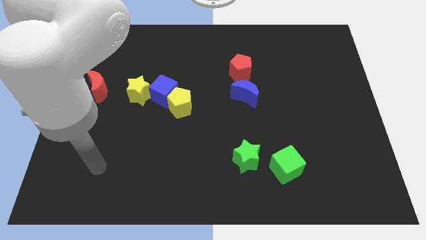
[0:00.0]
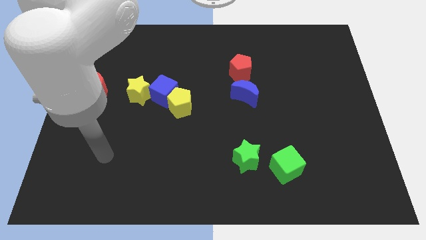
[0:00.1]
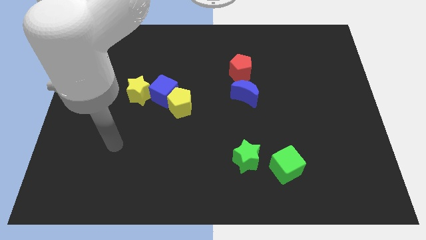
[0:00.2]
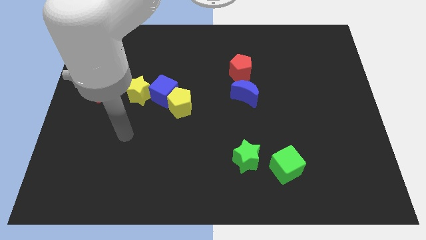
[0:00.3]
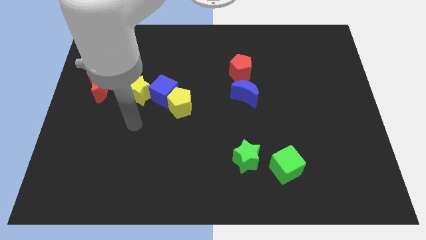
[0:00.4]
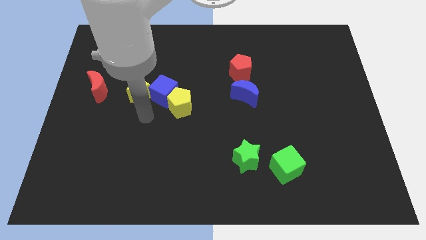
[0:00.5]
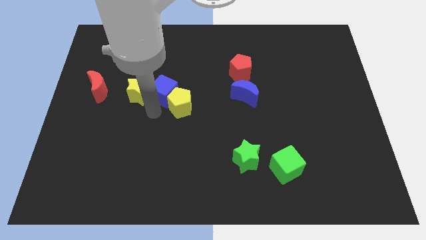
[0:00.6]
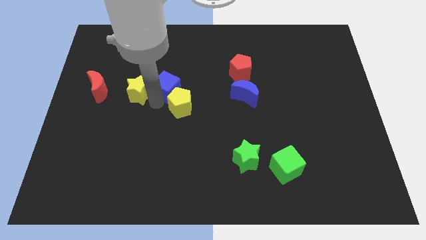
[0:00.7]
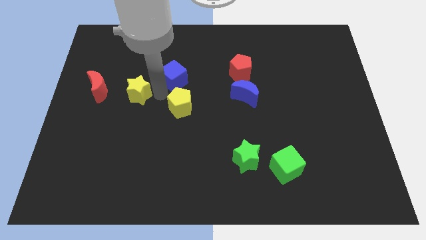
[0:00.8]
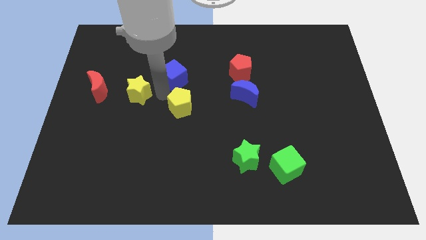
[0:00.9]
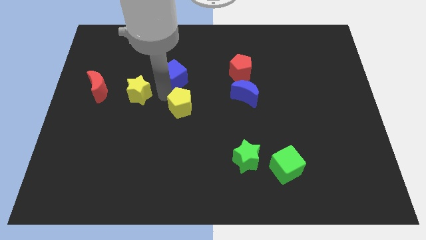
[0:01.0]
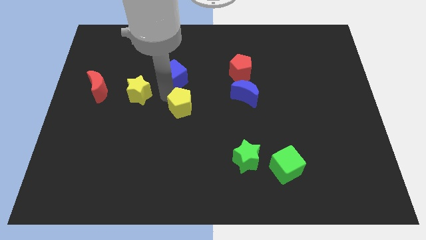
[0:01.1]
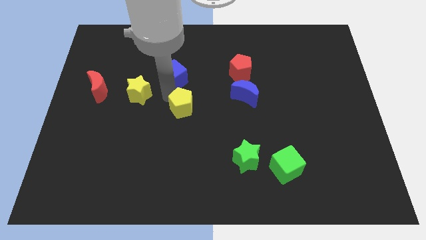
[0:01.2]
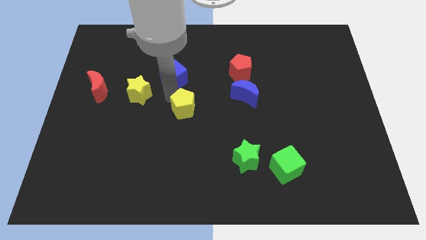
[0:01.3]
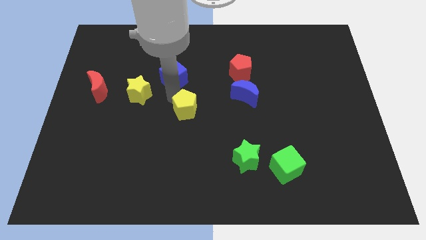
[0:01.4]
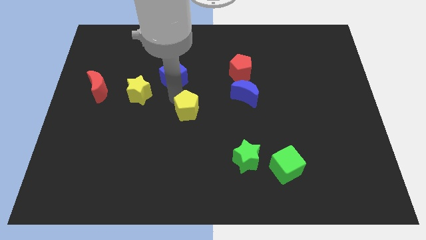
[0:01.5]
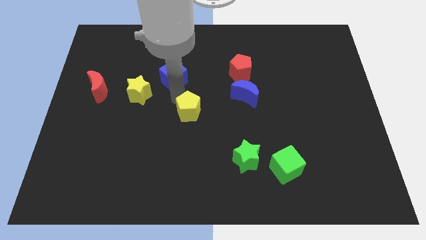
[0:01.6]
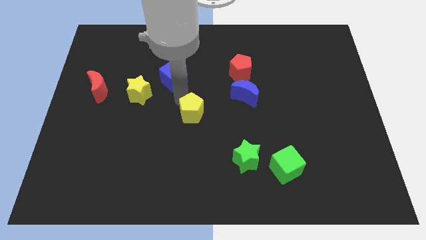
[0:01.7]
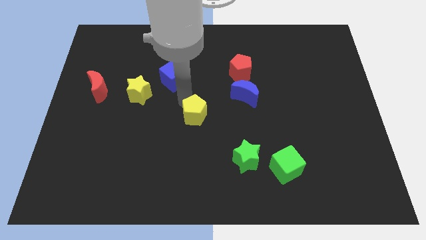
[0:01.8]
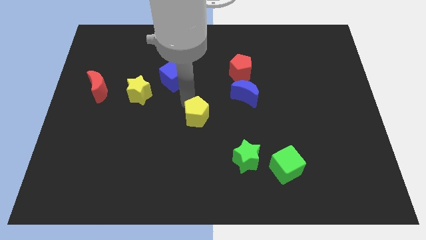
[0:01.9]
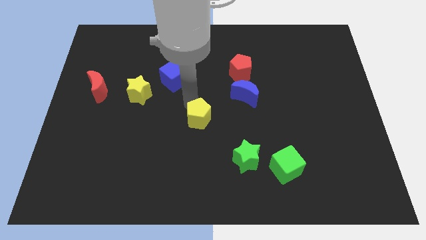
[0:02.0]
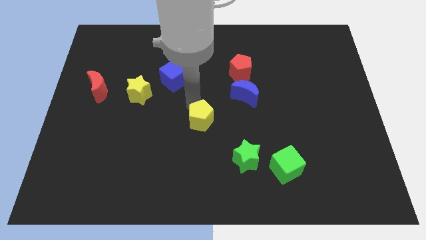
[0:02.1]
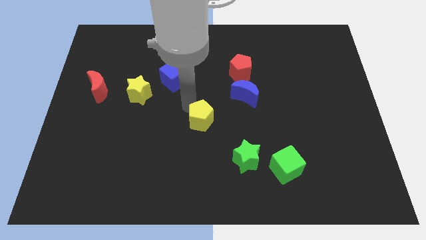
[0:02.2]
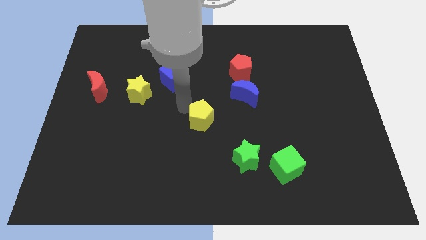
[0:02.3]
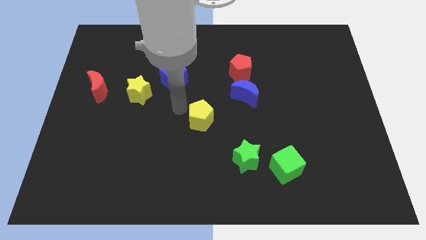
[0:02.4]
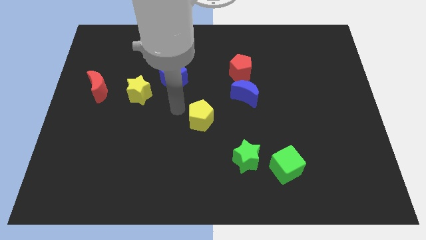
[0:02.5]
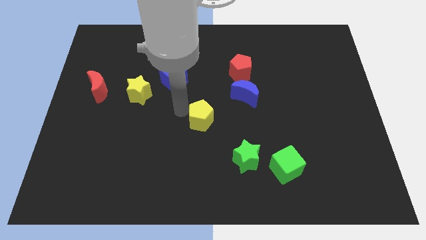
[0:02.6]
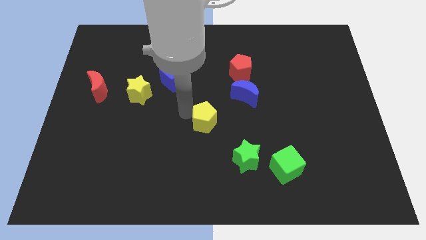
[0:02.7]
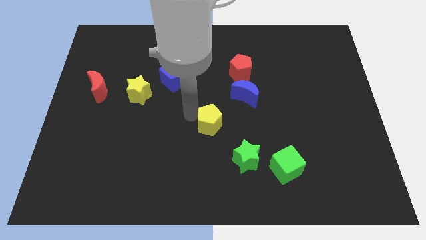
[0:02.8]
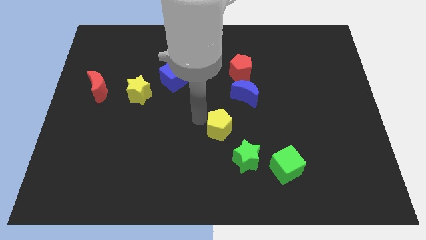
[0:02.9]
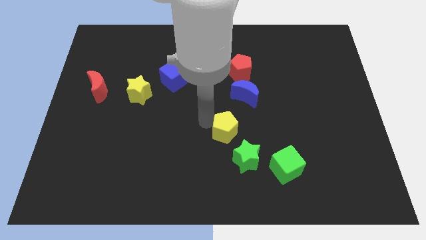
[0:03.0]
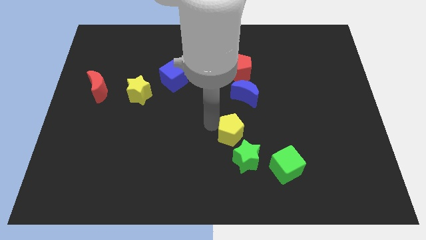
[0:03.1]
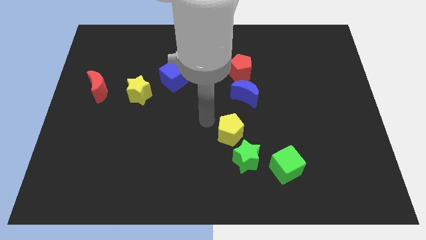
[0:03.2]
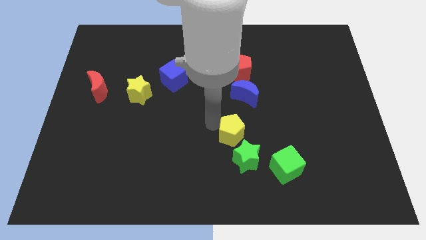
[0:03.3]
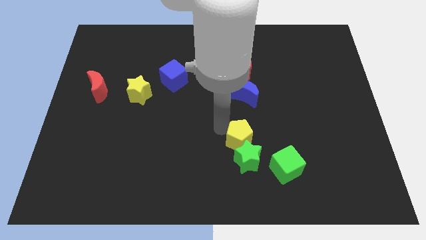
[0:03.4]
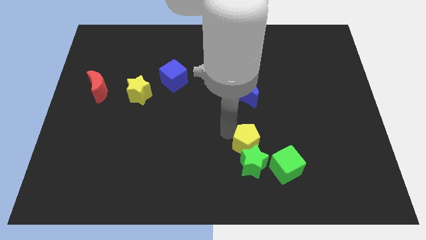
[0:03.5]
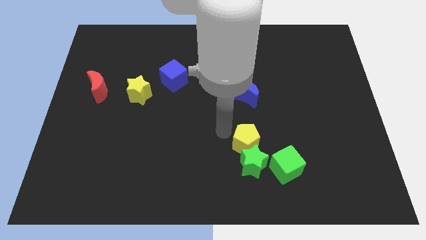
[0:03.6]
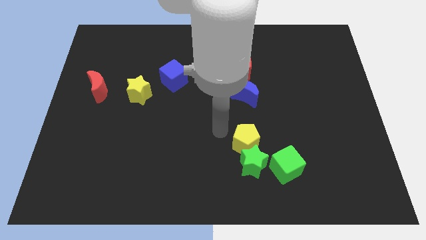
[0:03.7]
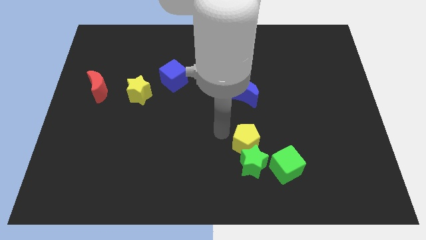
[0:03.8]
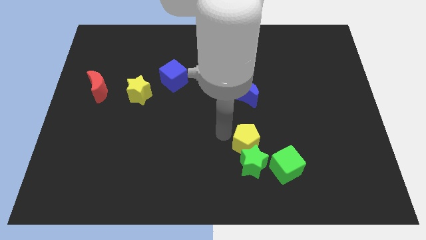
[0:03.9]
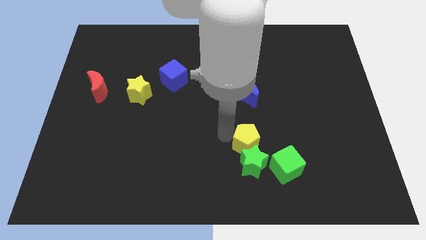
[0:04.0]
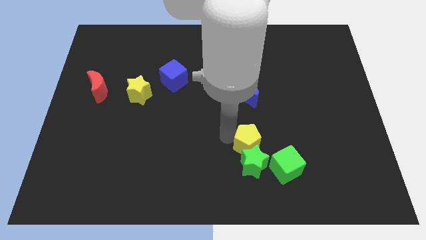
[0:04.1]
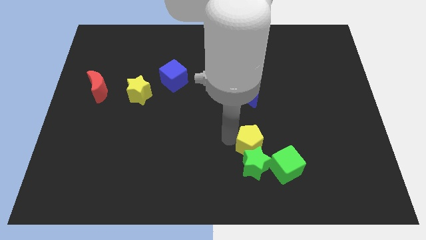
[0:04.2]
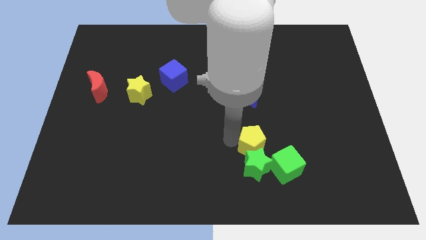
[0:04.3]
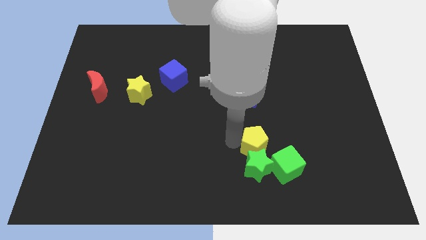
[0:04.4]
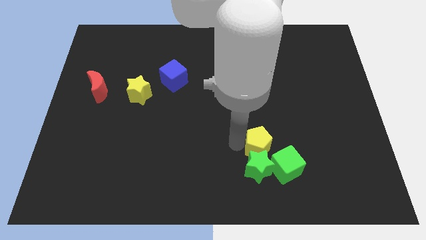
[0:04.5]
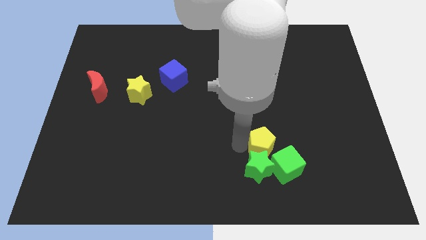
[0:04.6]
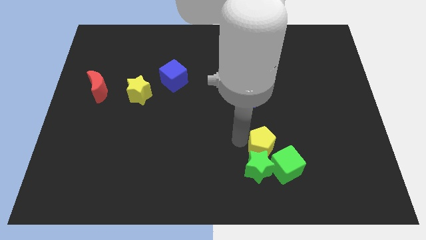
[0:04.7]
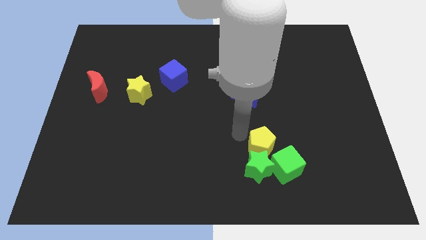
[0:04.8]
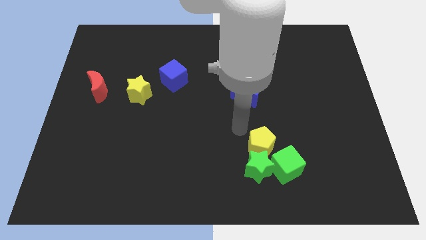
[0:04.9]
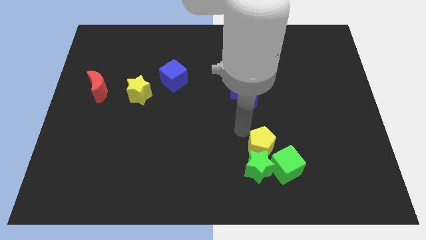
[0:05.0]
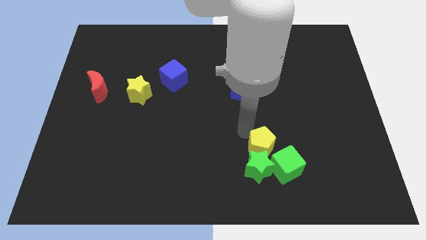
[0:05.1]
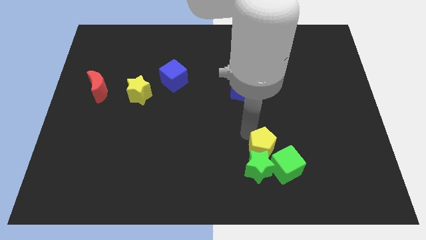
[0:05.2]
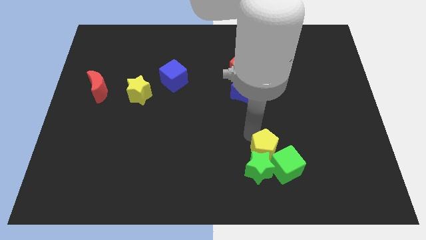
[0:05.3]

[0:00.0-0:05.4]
push the yellow pentagon towards the green cube

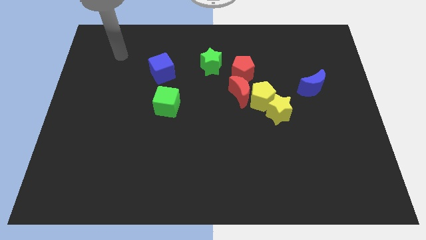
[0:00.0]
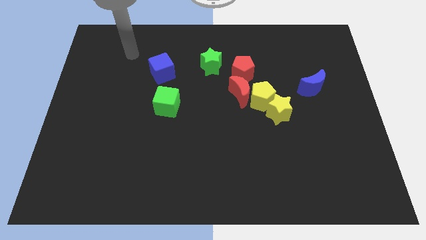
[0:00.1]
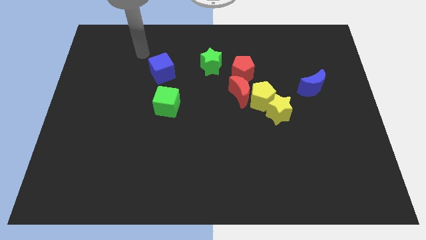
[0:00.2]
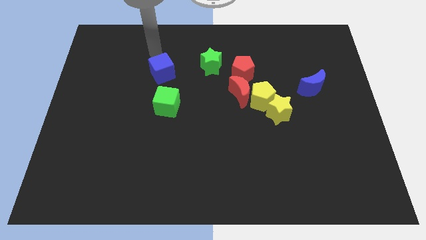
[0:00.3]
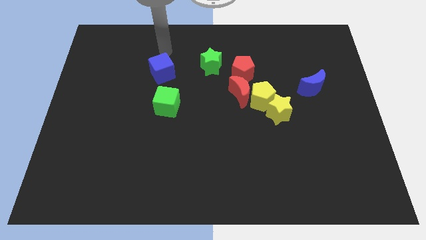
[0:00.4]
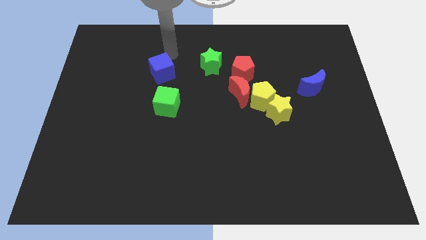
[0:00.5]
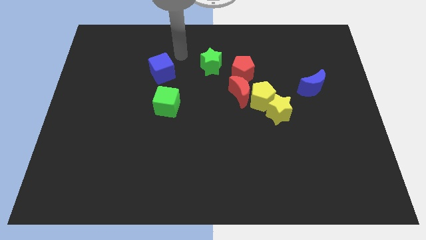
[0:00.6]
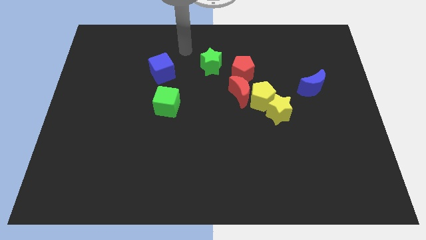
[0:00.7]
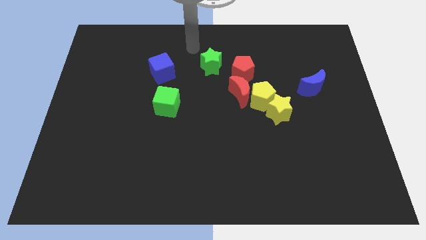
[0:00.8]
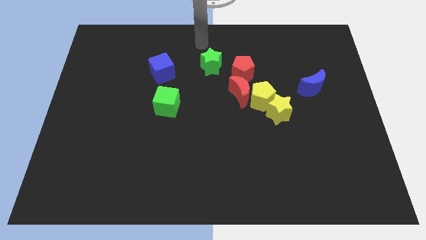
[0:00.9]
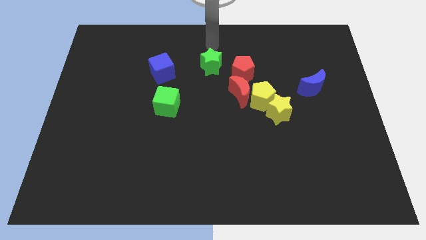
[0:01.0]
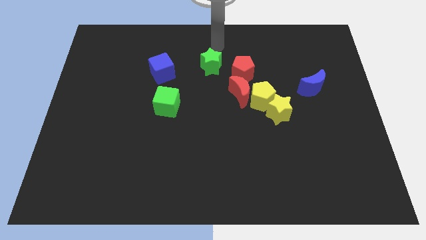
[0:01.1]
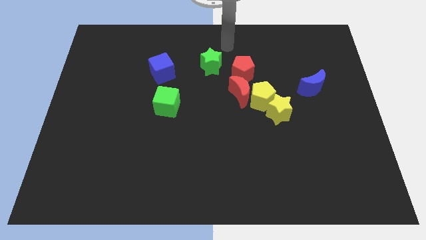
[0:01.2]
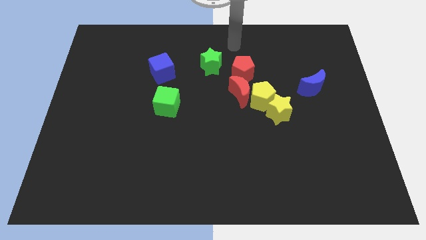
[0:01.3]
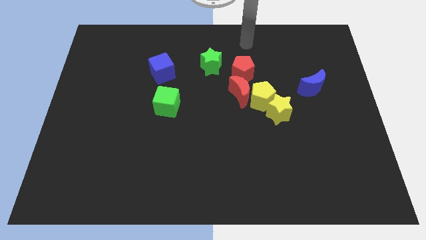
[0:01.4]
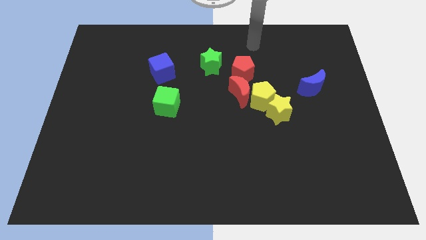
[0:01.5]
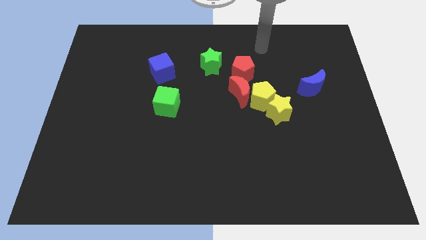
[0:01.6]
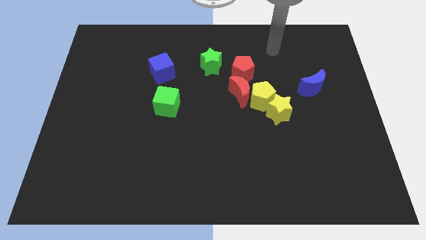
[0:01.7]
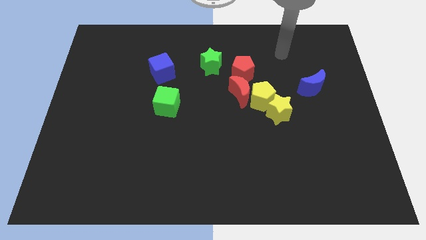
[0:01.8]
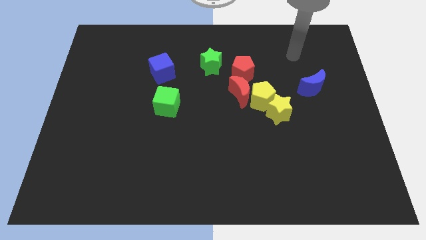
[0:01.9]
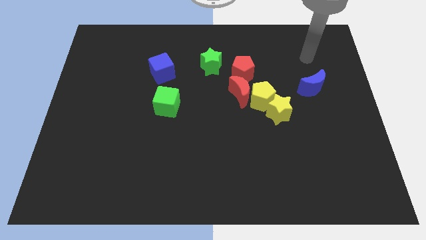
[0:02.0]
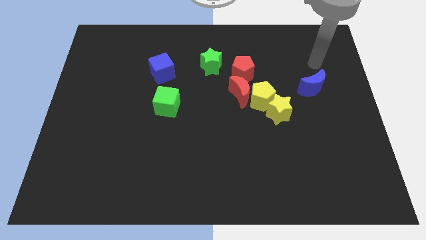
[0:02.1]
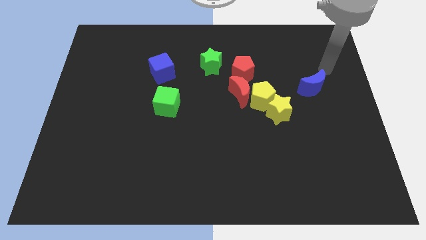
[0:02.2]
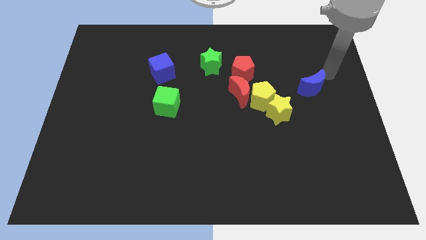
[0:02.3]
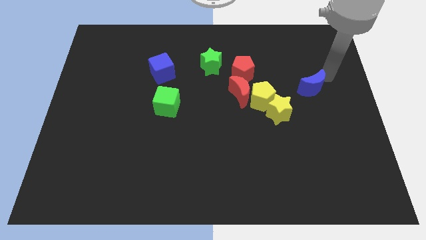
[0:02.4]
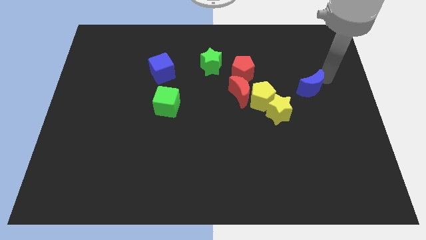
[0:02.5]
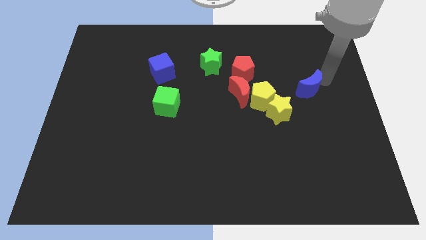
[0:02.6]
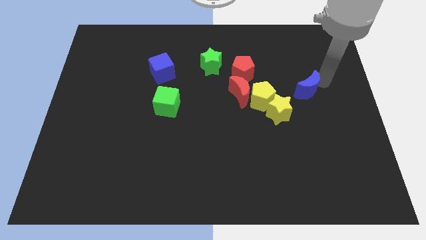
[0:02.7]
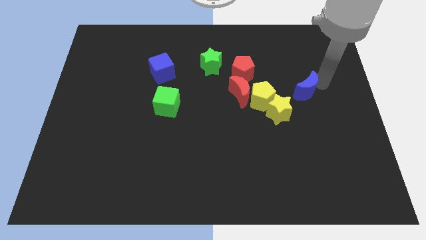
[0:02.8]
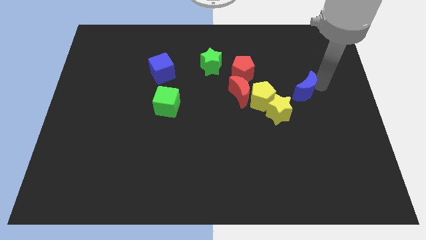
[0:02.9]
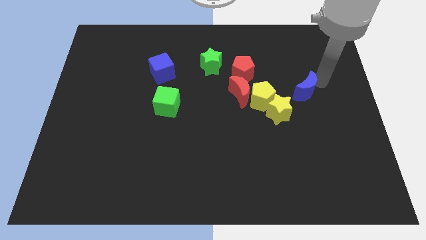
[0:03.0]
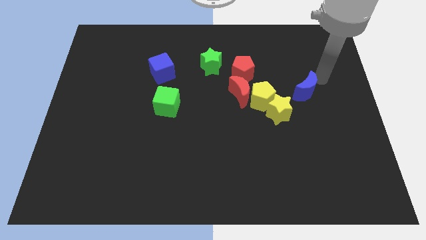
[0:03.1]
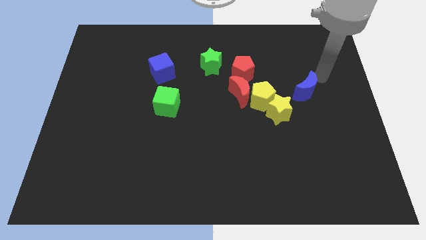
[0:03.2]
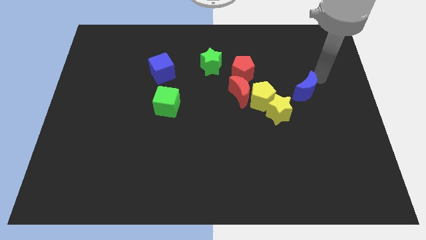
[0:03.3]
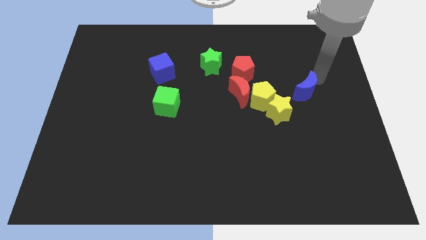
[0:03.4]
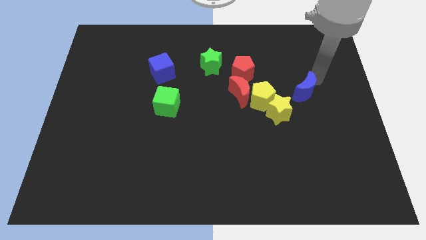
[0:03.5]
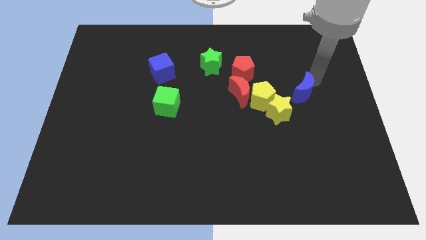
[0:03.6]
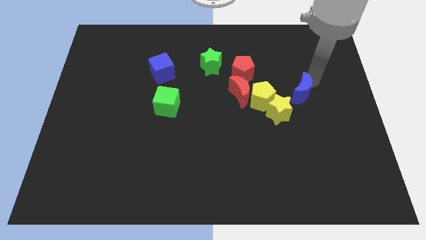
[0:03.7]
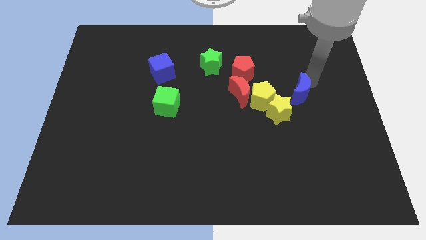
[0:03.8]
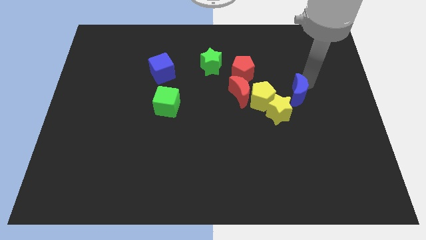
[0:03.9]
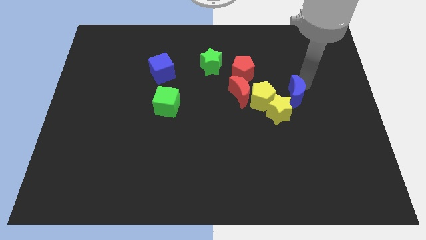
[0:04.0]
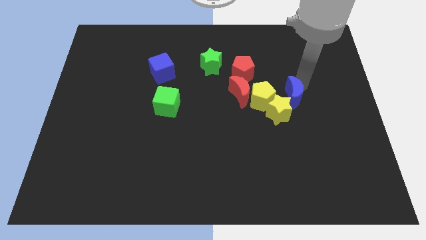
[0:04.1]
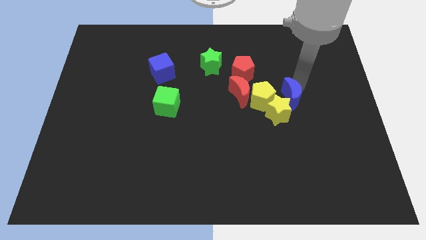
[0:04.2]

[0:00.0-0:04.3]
put the blue moon to the yellow star
